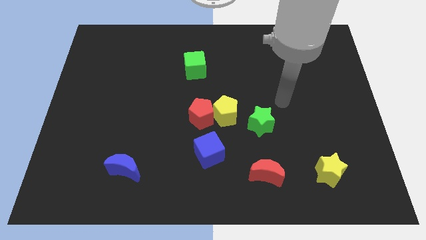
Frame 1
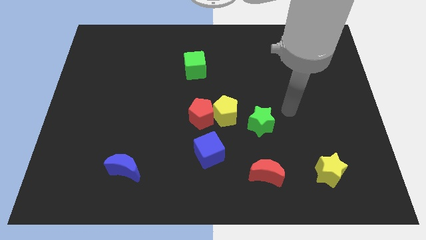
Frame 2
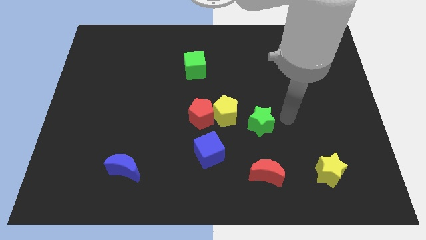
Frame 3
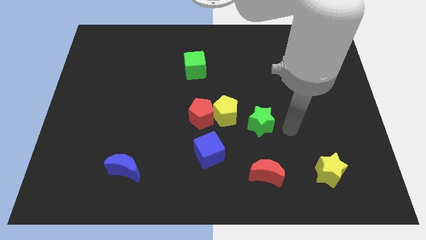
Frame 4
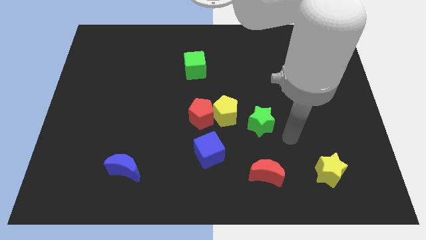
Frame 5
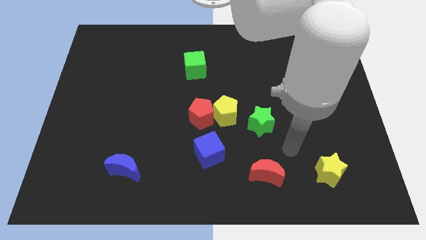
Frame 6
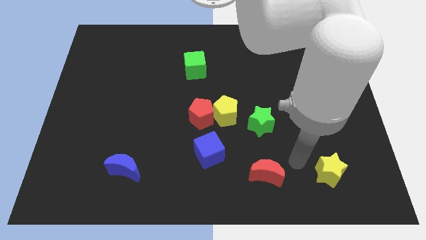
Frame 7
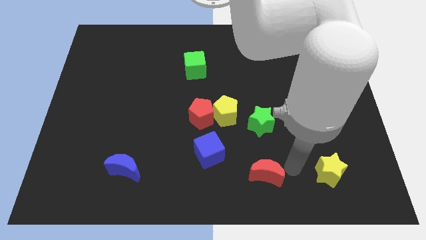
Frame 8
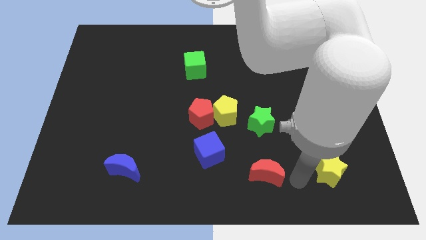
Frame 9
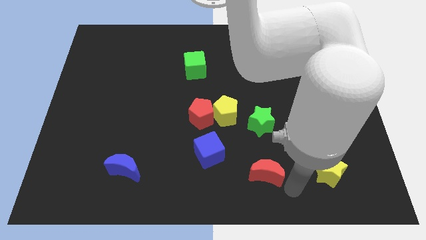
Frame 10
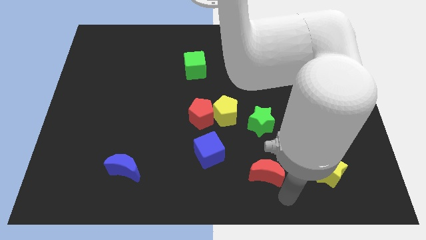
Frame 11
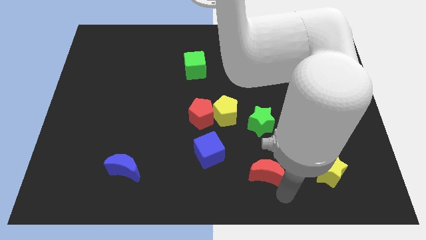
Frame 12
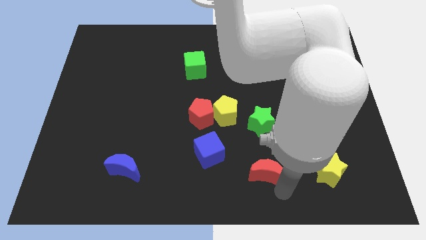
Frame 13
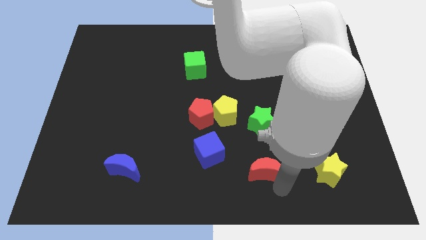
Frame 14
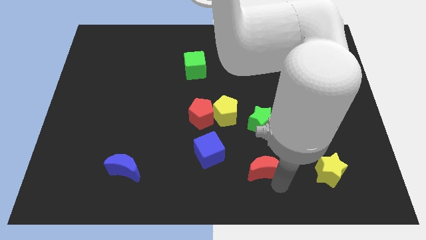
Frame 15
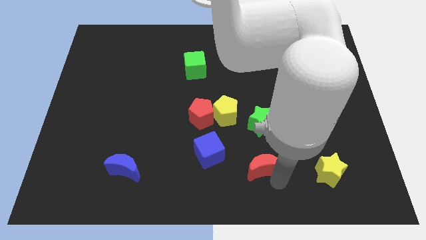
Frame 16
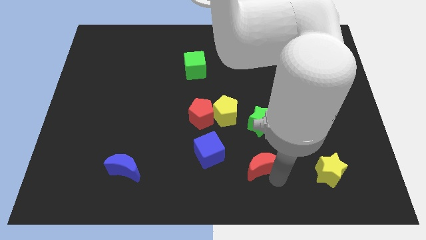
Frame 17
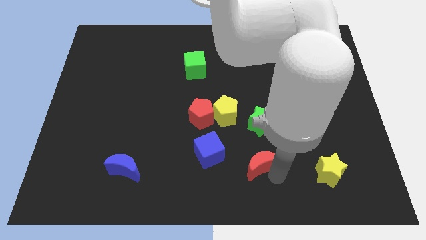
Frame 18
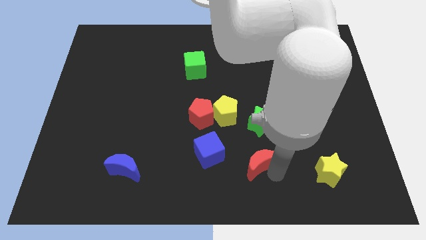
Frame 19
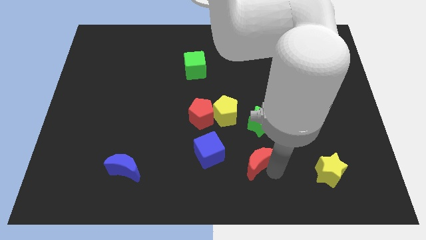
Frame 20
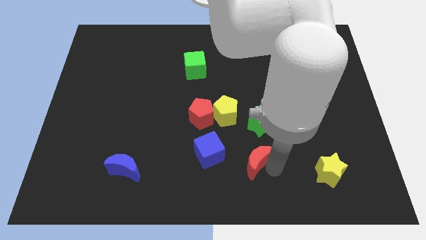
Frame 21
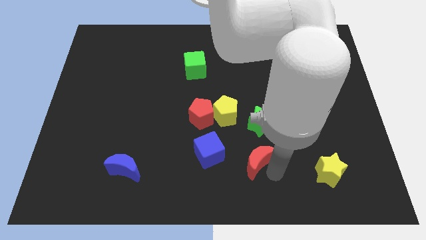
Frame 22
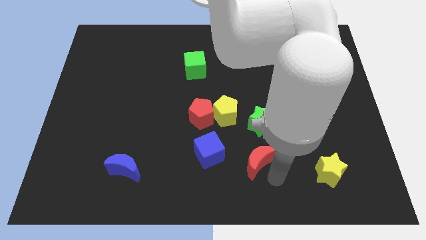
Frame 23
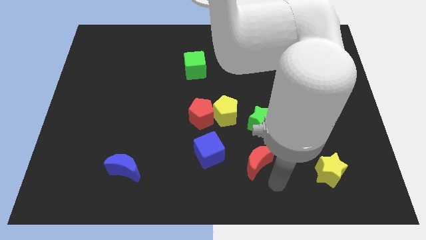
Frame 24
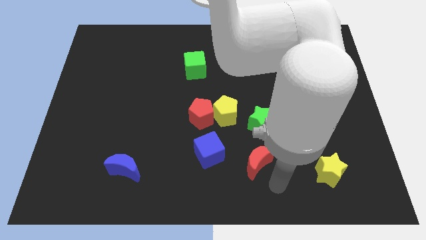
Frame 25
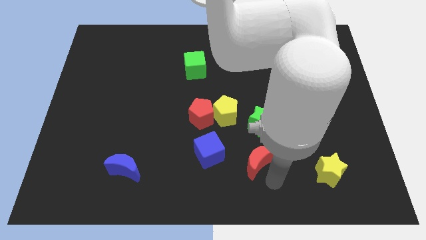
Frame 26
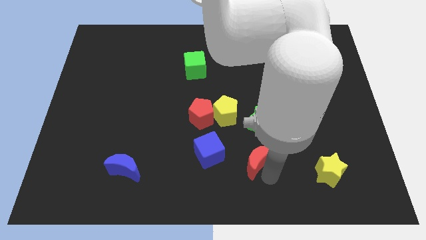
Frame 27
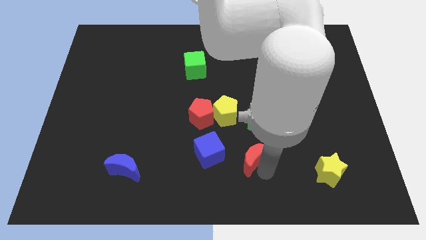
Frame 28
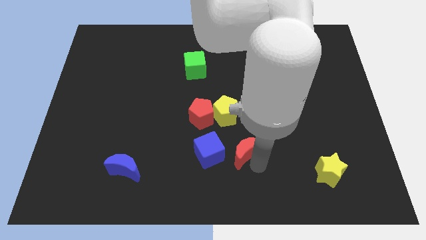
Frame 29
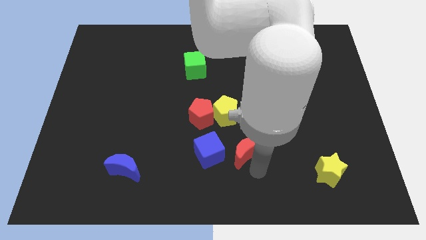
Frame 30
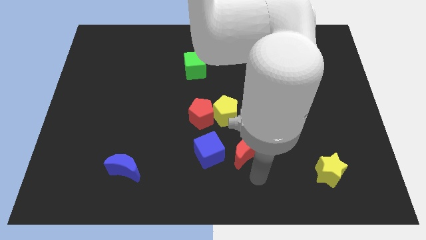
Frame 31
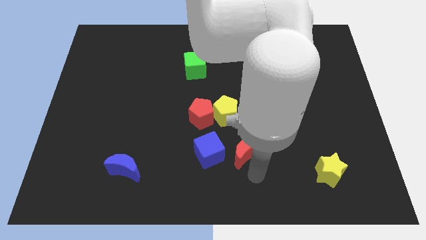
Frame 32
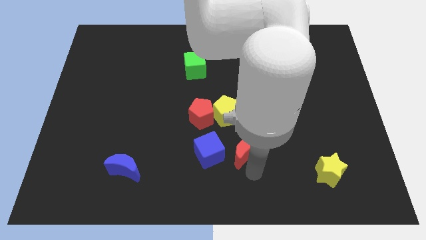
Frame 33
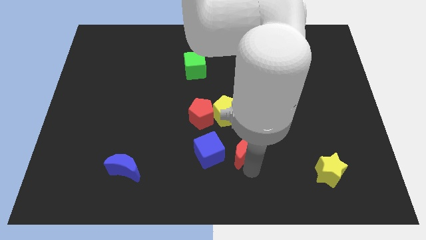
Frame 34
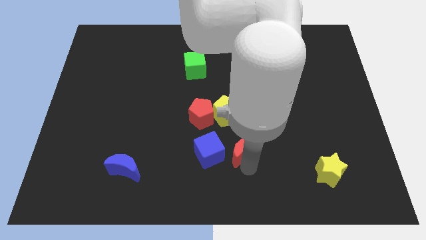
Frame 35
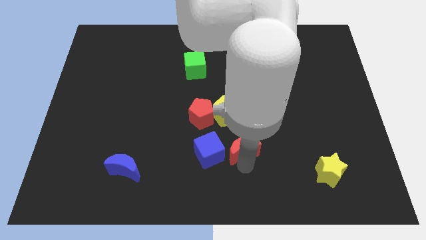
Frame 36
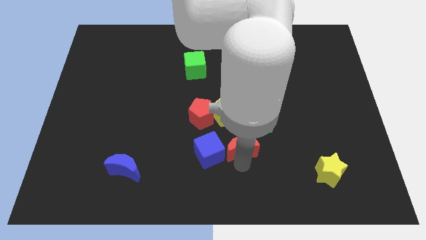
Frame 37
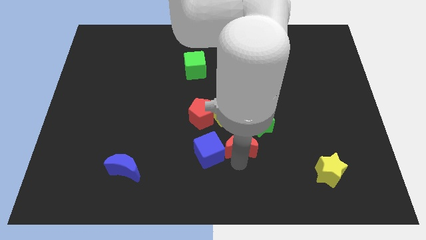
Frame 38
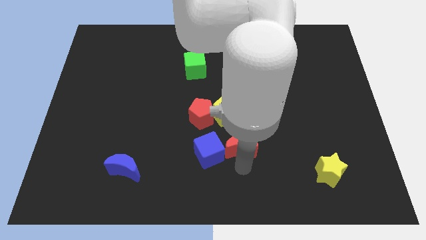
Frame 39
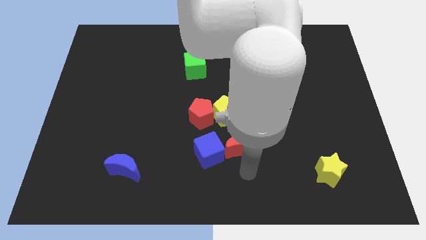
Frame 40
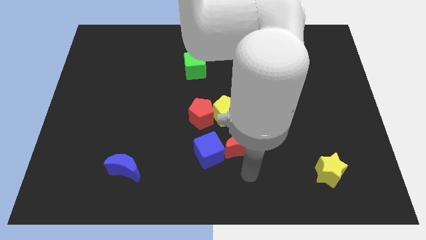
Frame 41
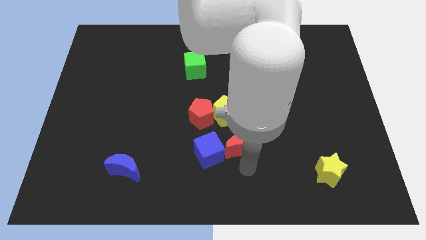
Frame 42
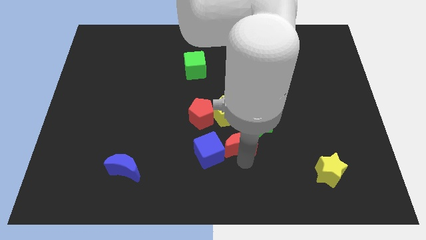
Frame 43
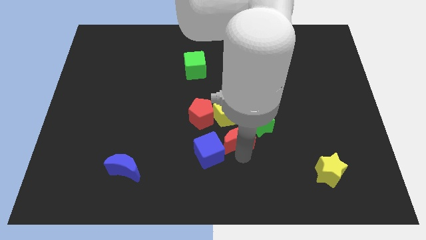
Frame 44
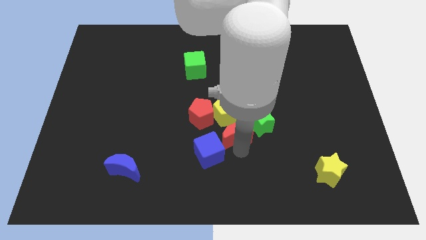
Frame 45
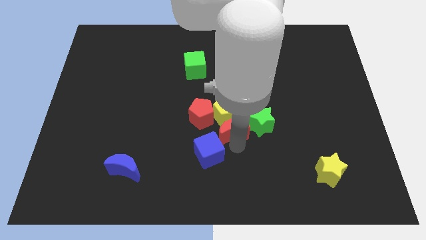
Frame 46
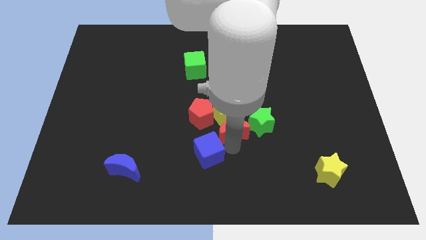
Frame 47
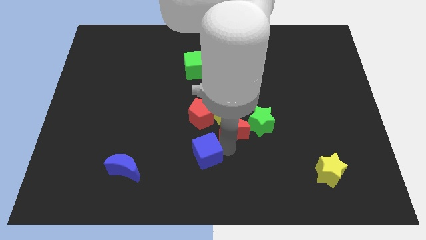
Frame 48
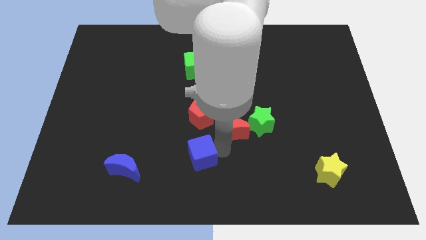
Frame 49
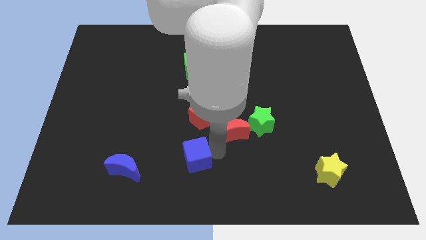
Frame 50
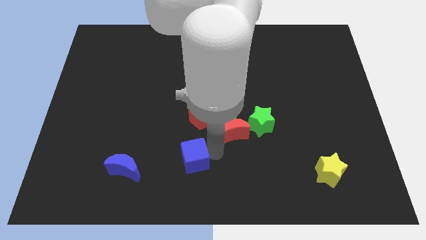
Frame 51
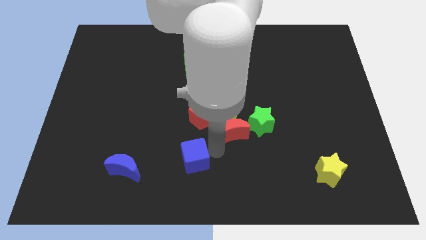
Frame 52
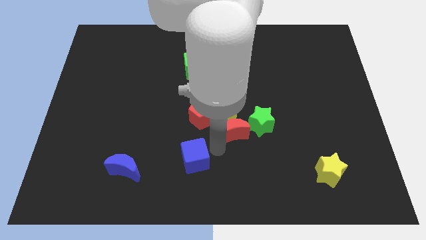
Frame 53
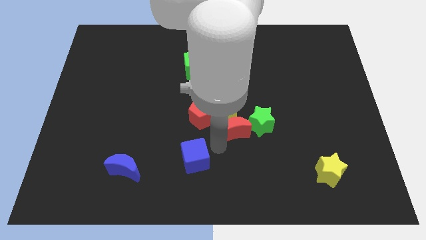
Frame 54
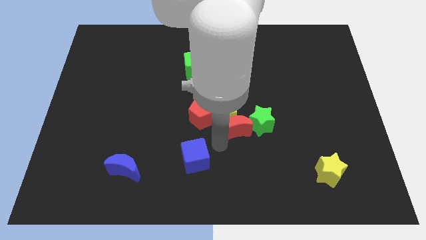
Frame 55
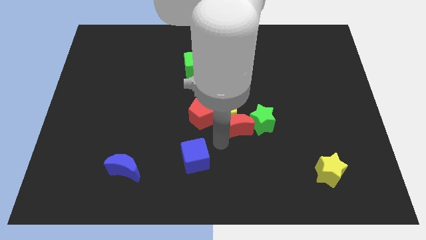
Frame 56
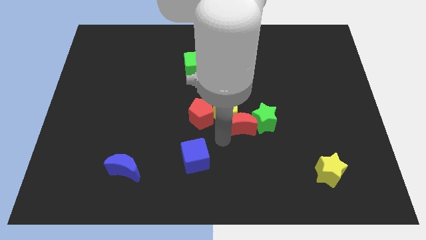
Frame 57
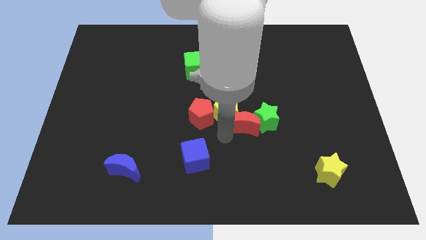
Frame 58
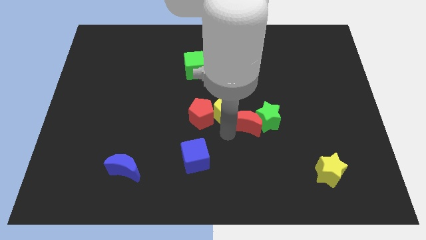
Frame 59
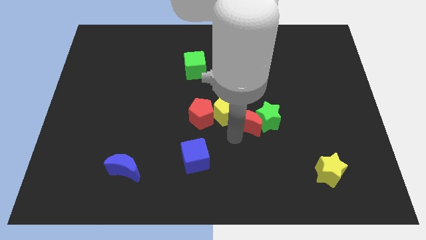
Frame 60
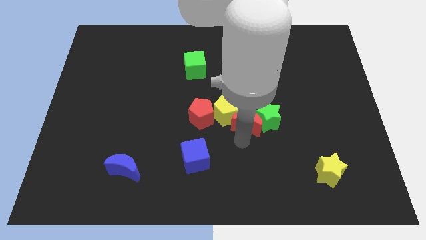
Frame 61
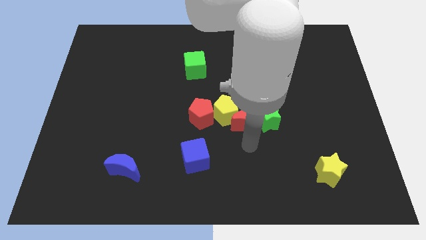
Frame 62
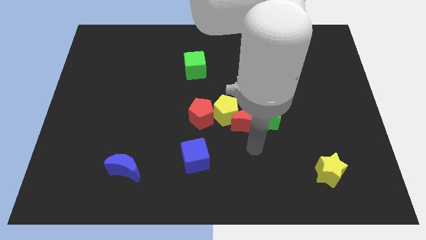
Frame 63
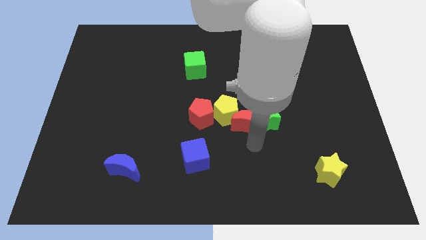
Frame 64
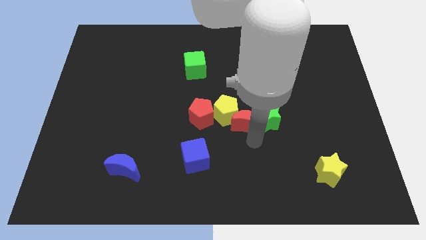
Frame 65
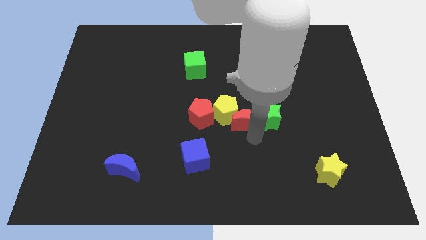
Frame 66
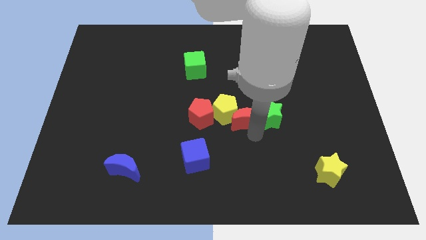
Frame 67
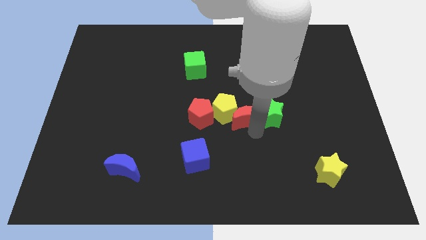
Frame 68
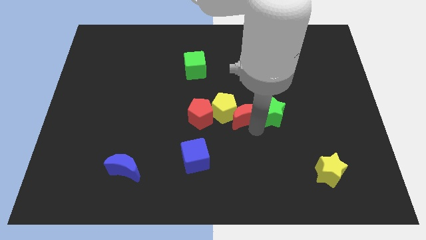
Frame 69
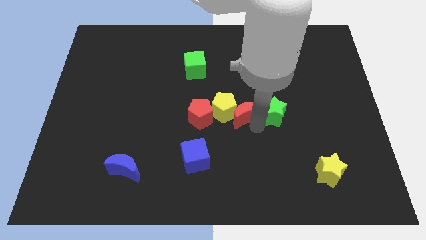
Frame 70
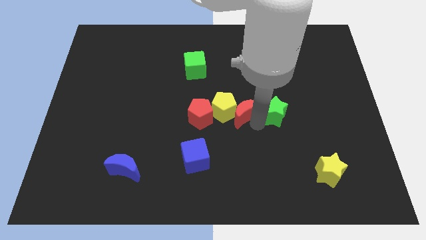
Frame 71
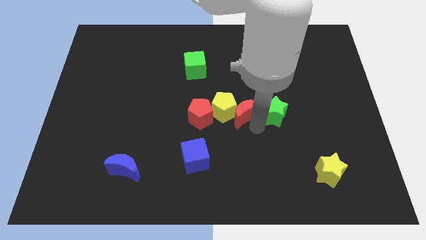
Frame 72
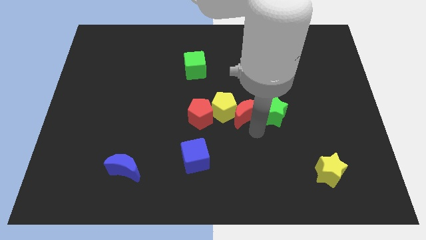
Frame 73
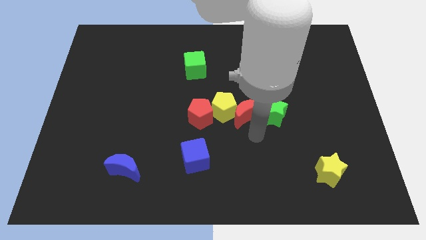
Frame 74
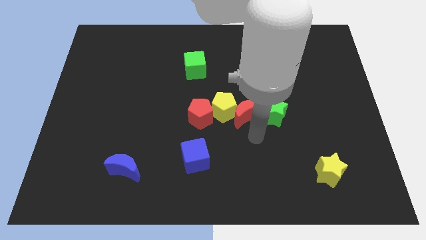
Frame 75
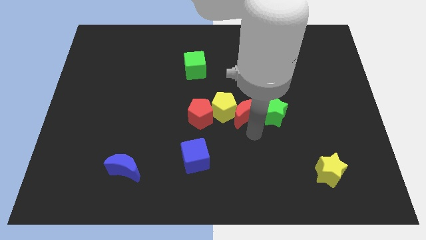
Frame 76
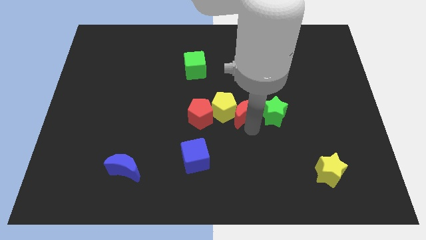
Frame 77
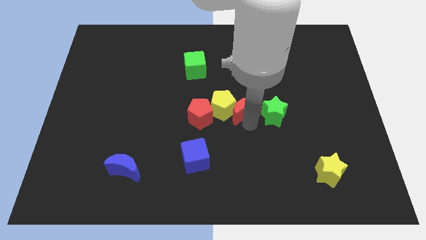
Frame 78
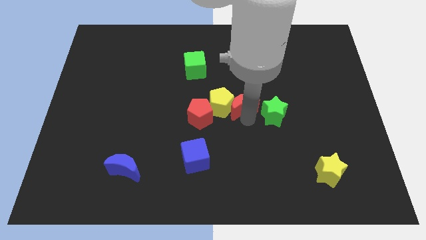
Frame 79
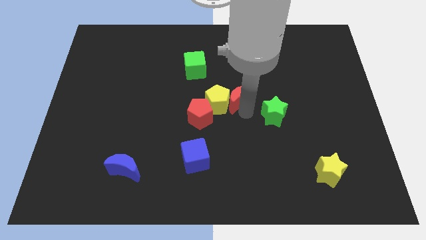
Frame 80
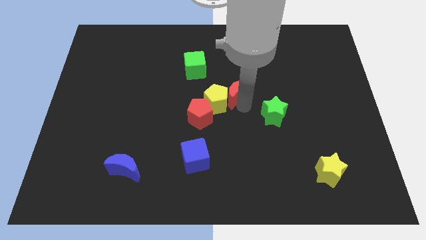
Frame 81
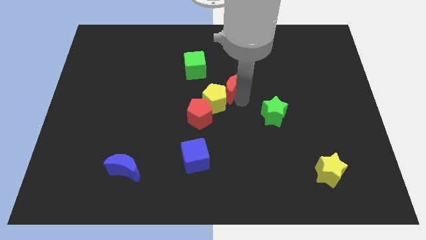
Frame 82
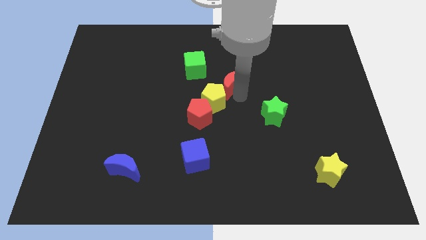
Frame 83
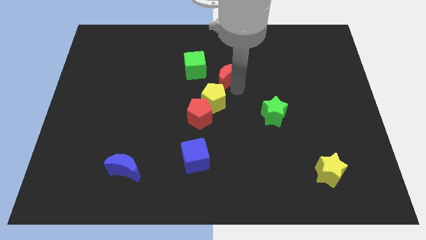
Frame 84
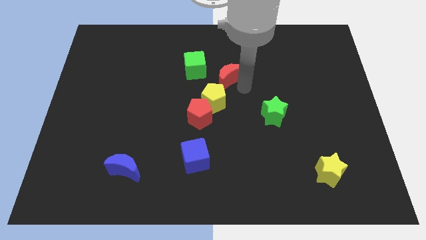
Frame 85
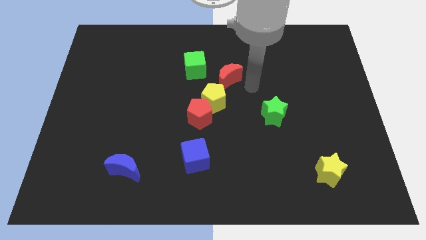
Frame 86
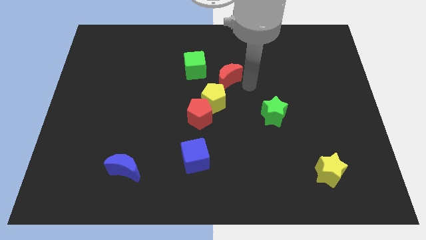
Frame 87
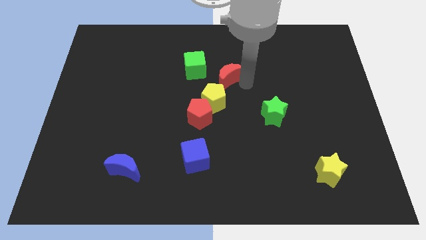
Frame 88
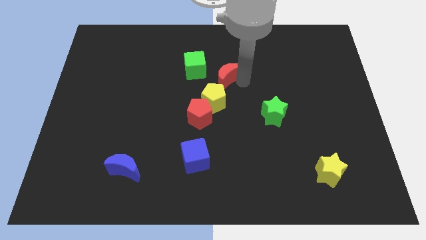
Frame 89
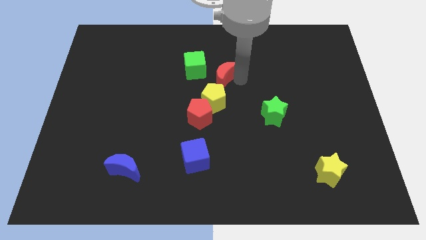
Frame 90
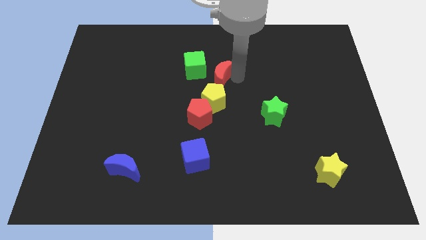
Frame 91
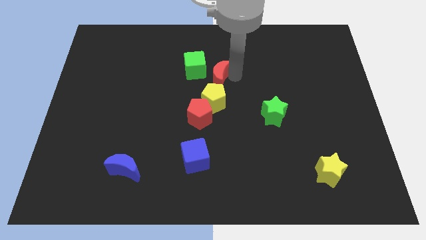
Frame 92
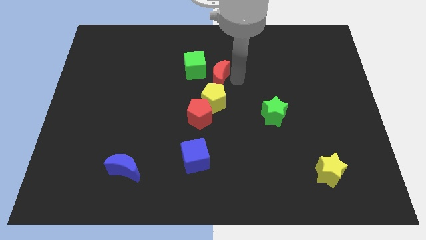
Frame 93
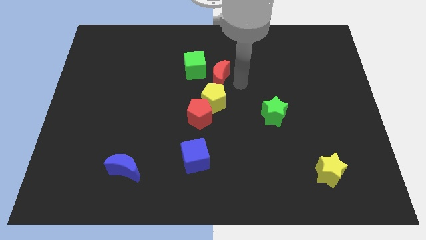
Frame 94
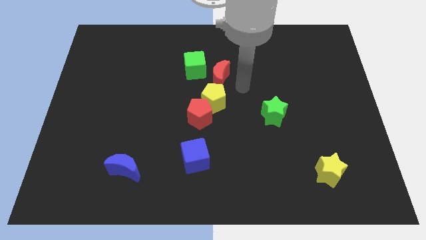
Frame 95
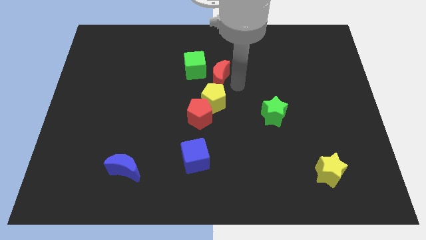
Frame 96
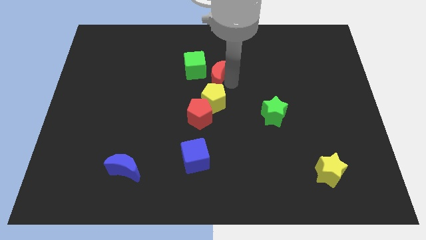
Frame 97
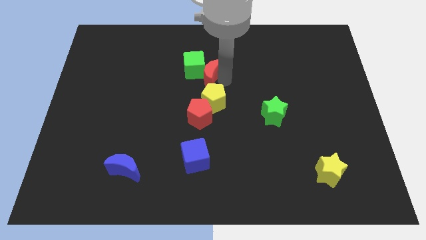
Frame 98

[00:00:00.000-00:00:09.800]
move the red moon towards the green cube
